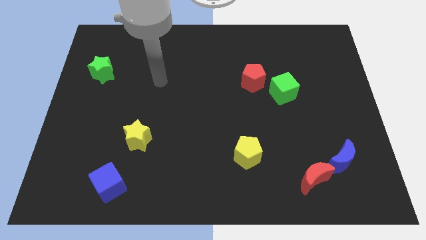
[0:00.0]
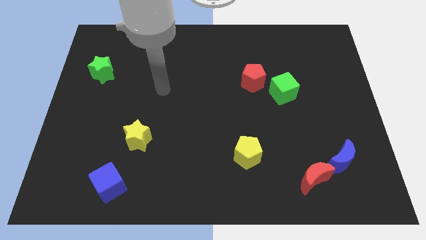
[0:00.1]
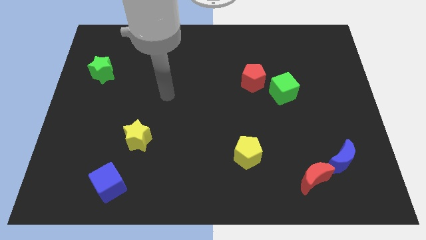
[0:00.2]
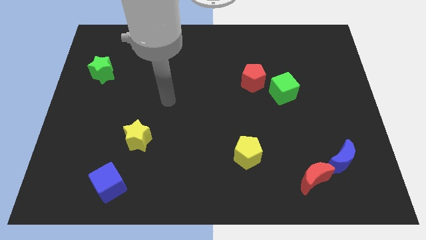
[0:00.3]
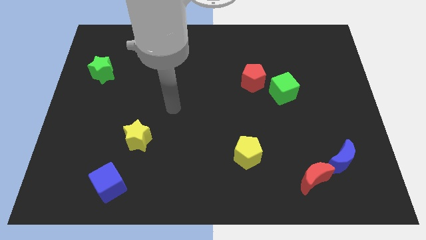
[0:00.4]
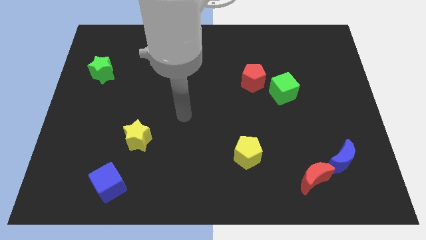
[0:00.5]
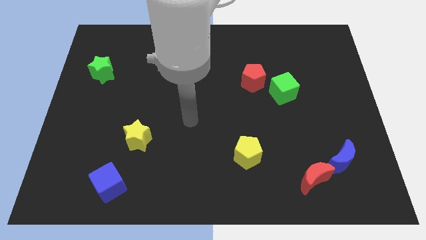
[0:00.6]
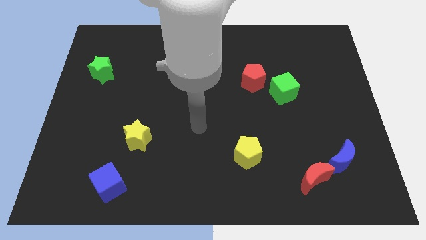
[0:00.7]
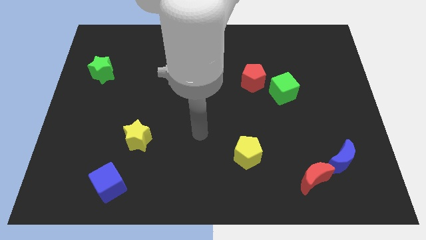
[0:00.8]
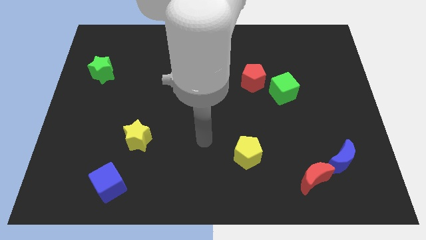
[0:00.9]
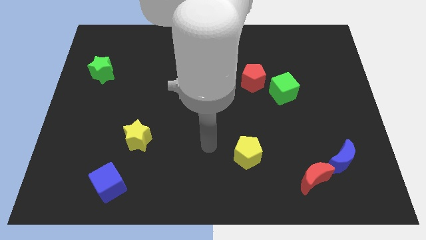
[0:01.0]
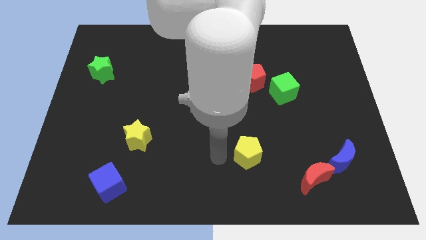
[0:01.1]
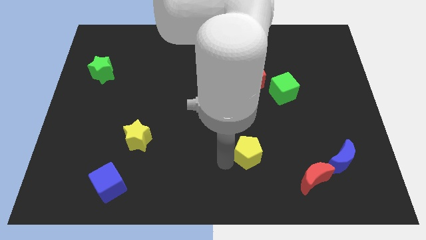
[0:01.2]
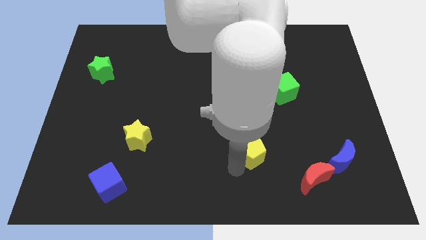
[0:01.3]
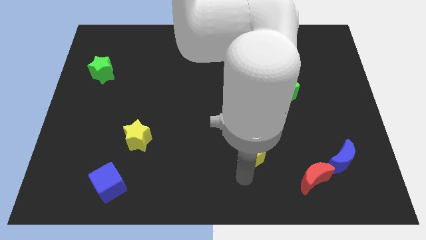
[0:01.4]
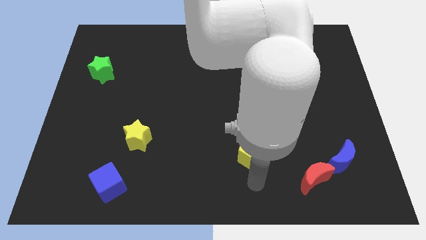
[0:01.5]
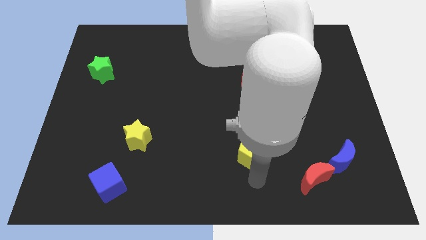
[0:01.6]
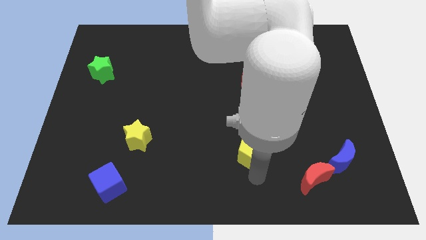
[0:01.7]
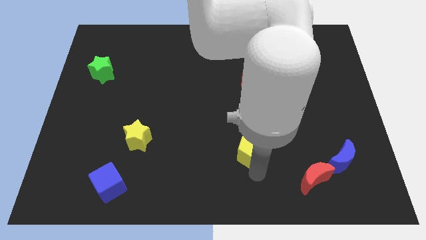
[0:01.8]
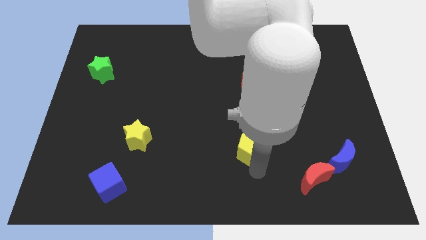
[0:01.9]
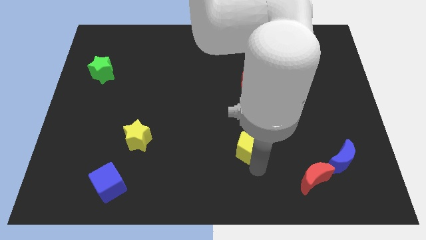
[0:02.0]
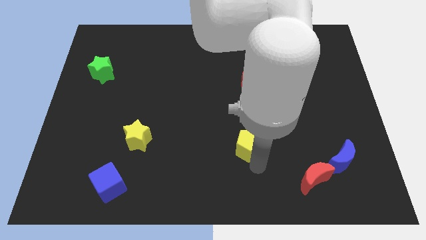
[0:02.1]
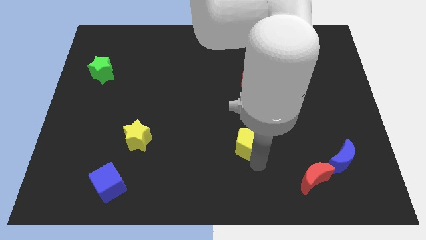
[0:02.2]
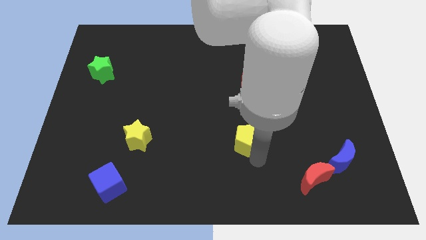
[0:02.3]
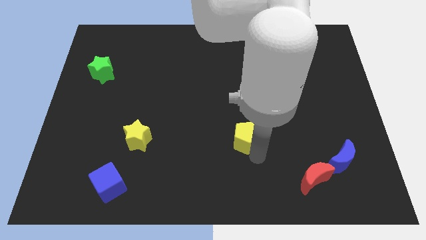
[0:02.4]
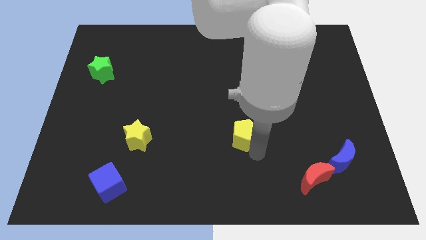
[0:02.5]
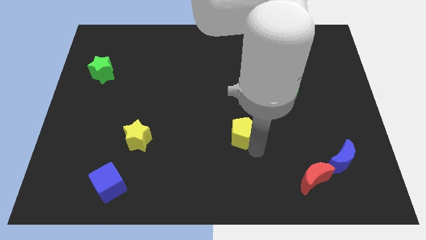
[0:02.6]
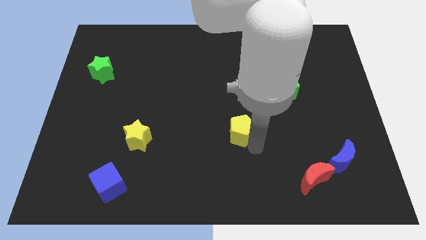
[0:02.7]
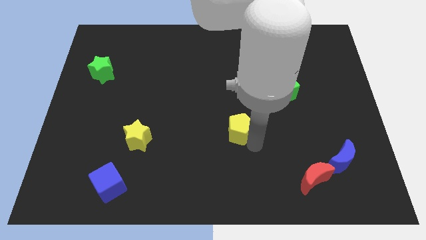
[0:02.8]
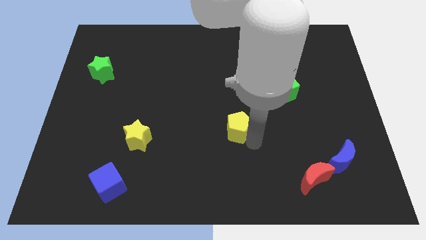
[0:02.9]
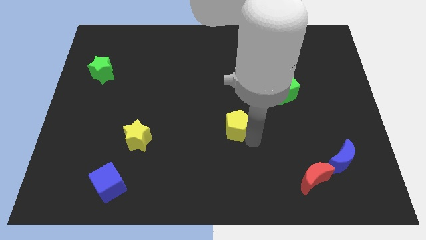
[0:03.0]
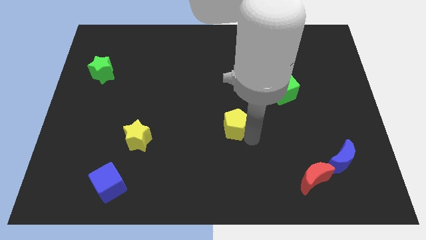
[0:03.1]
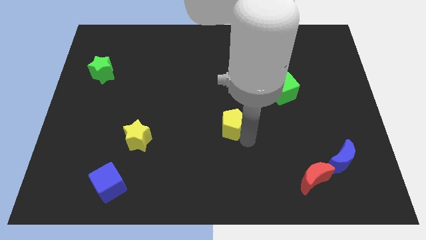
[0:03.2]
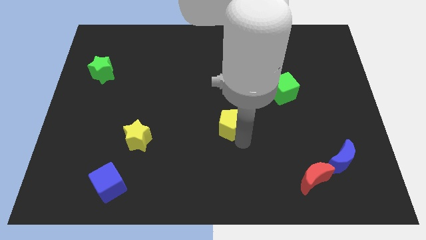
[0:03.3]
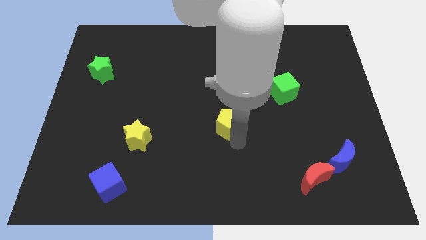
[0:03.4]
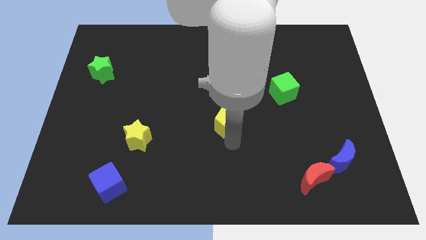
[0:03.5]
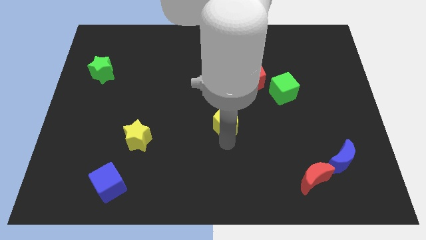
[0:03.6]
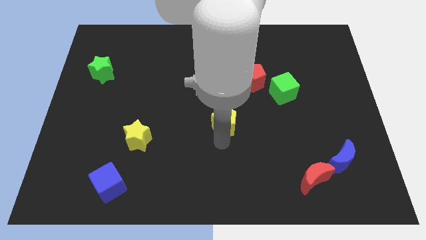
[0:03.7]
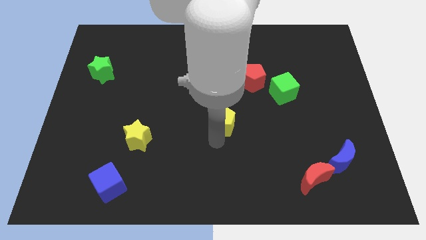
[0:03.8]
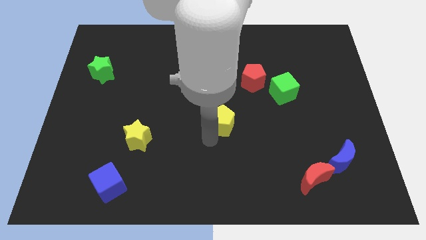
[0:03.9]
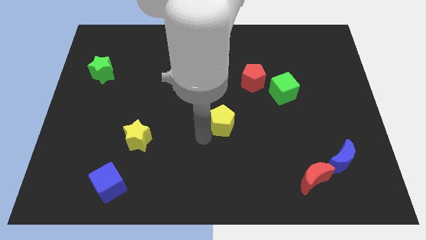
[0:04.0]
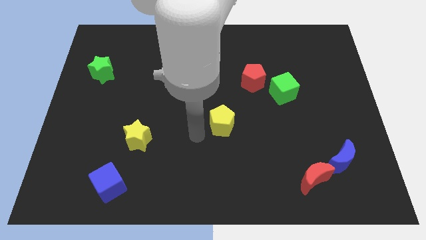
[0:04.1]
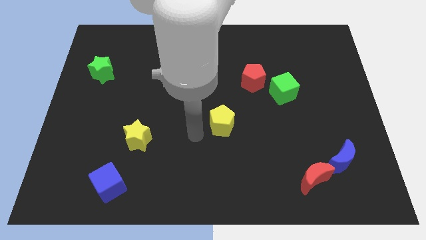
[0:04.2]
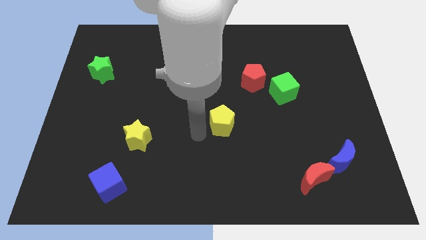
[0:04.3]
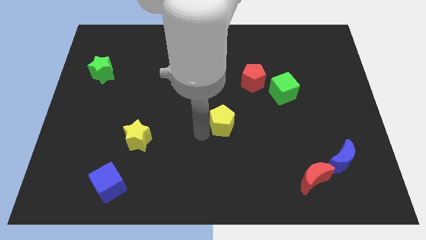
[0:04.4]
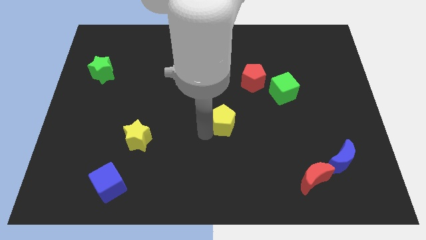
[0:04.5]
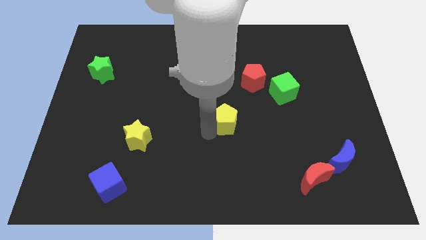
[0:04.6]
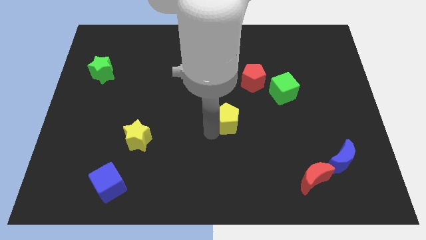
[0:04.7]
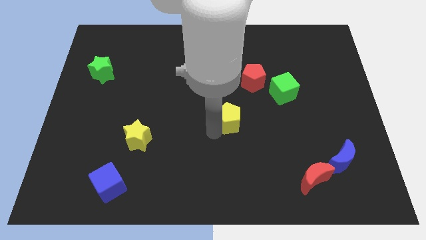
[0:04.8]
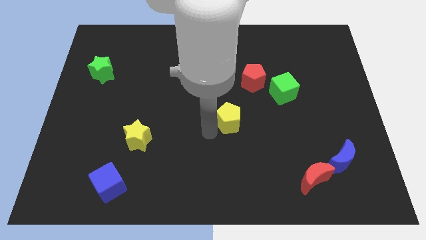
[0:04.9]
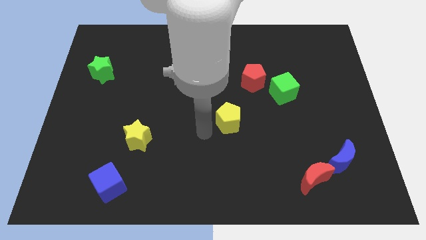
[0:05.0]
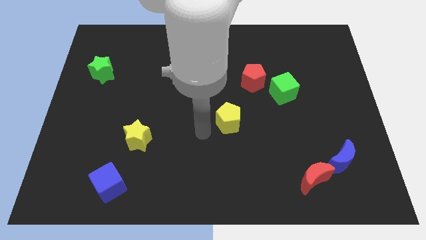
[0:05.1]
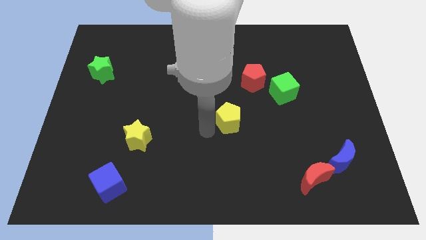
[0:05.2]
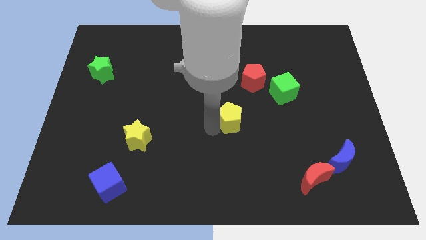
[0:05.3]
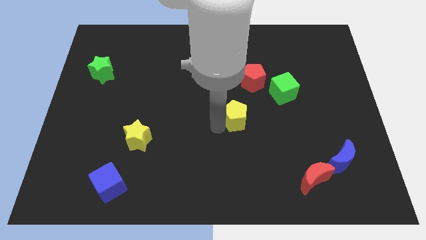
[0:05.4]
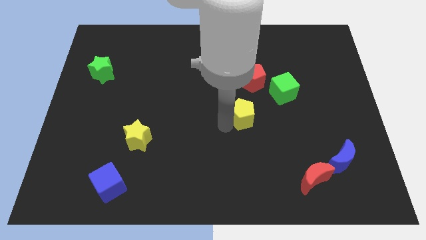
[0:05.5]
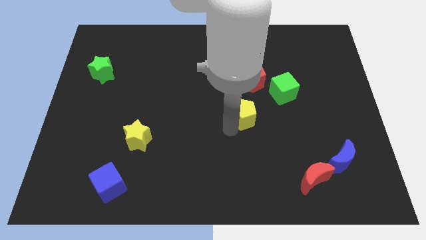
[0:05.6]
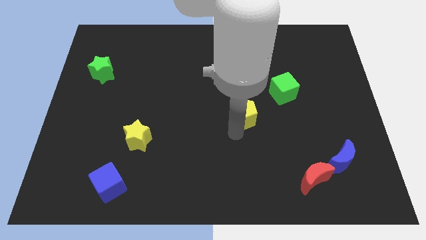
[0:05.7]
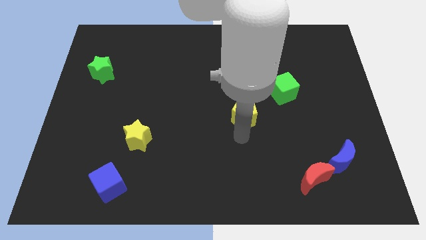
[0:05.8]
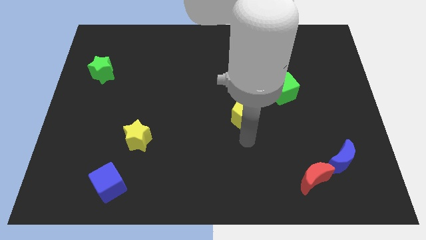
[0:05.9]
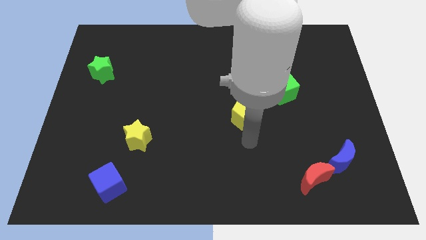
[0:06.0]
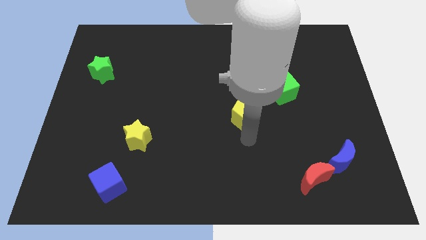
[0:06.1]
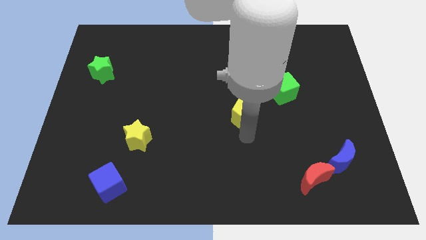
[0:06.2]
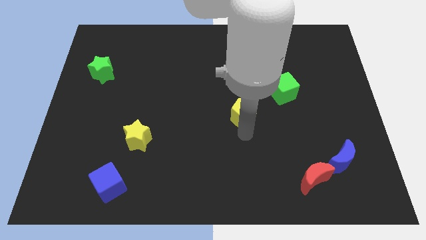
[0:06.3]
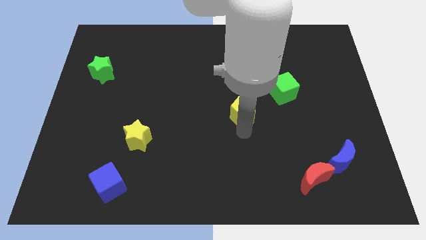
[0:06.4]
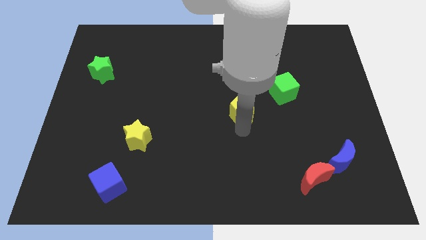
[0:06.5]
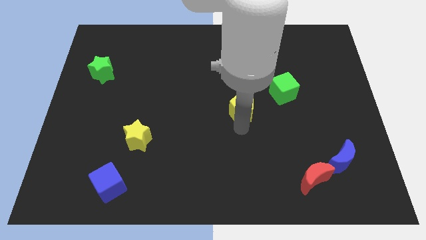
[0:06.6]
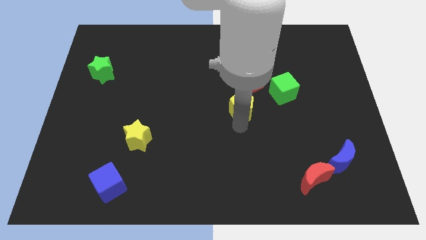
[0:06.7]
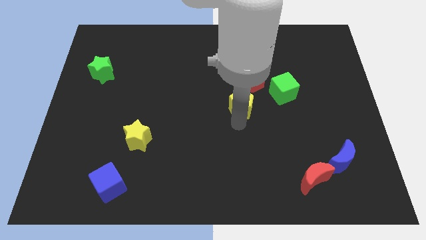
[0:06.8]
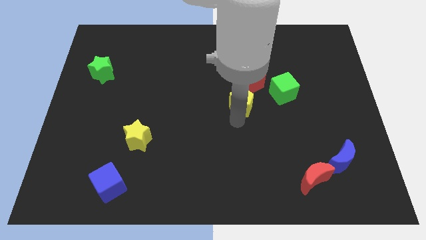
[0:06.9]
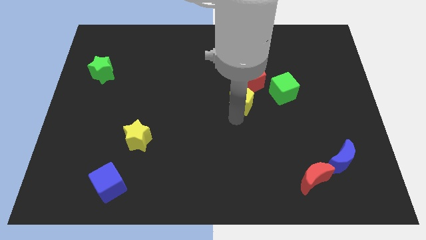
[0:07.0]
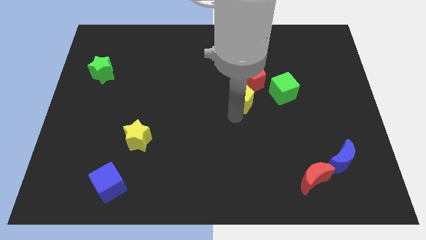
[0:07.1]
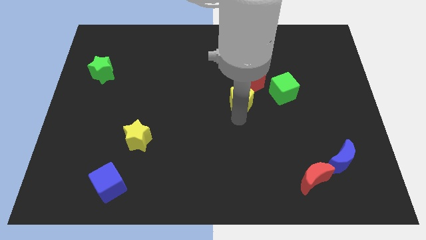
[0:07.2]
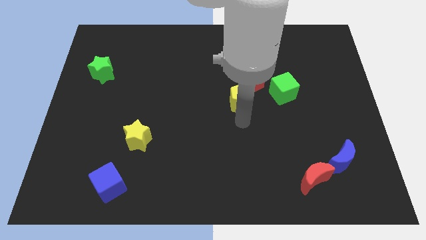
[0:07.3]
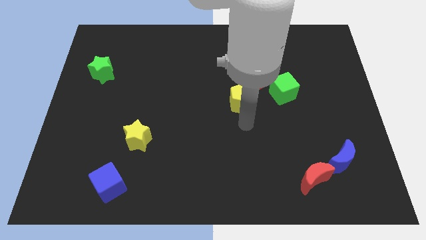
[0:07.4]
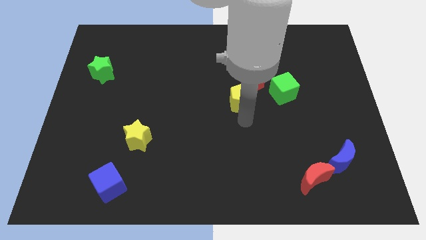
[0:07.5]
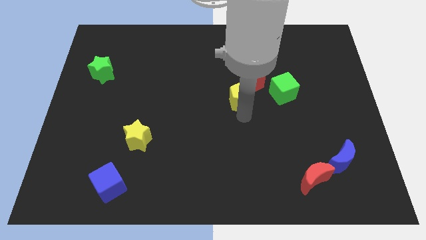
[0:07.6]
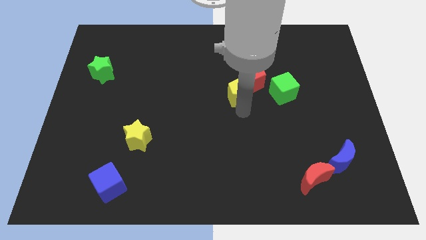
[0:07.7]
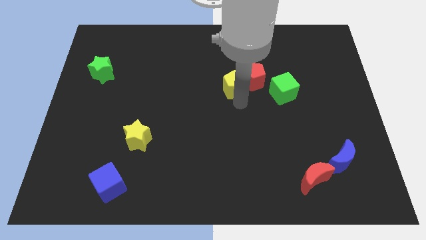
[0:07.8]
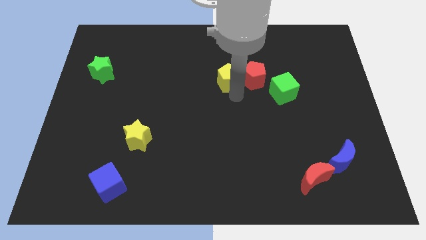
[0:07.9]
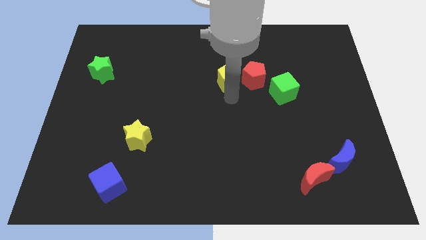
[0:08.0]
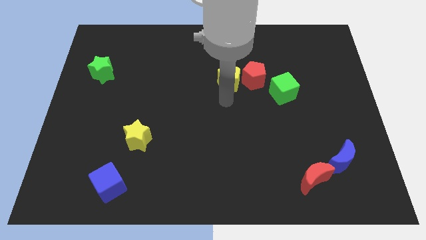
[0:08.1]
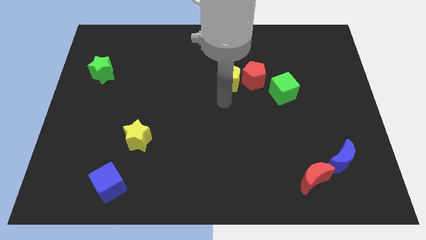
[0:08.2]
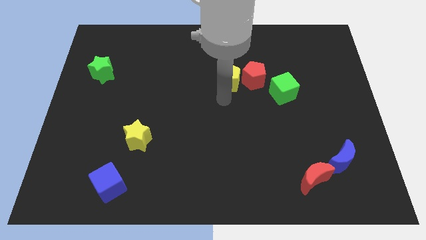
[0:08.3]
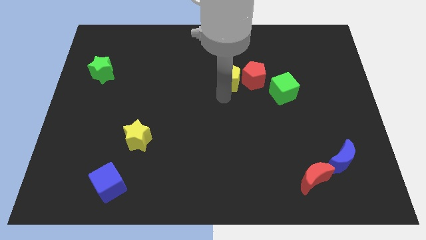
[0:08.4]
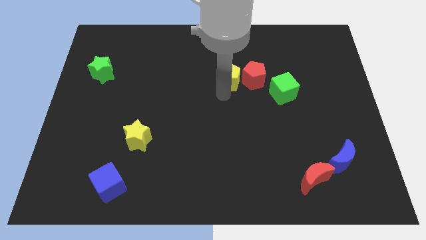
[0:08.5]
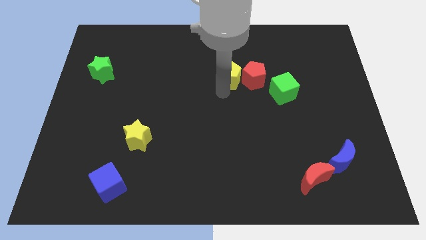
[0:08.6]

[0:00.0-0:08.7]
put the yellow pentagon to the top left side of the red pentagon
